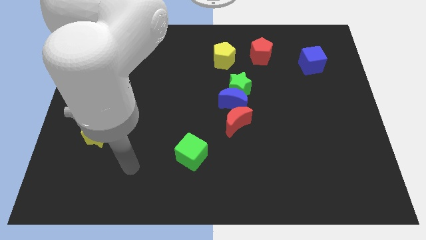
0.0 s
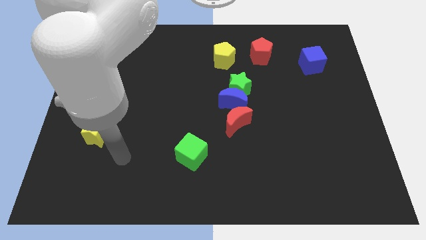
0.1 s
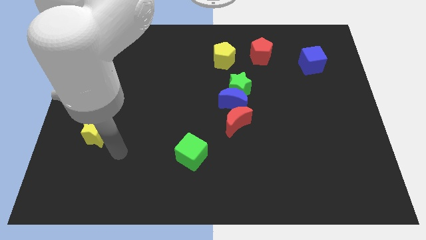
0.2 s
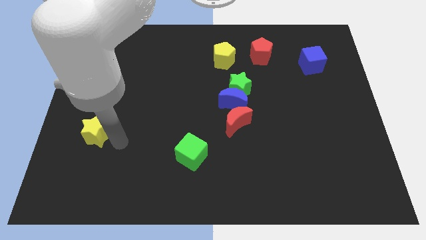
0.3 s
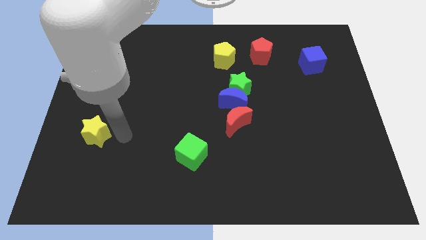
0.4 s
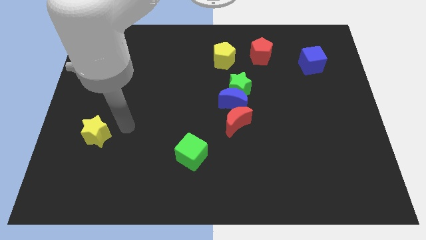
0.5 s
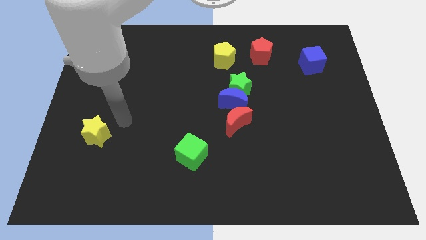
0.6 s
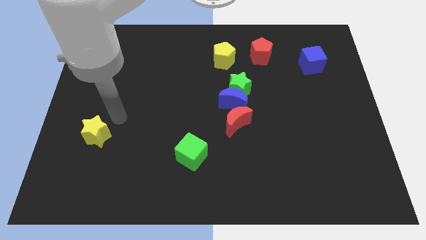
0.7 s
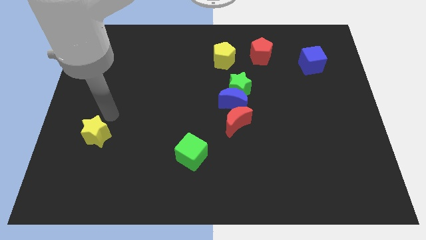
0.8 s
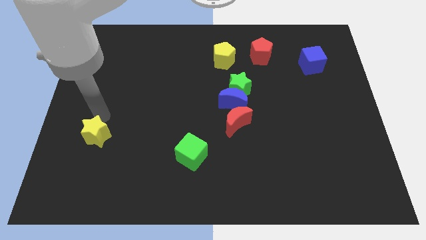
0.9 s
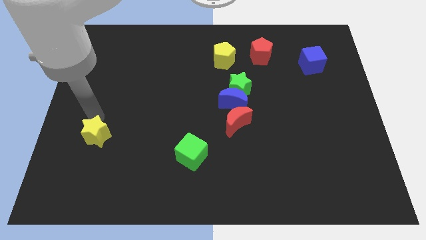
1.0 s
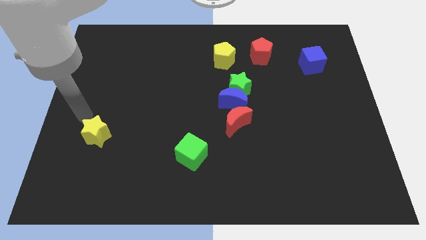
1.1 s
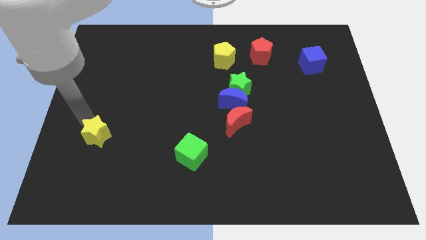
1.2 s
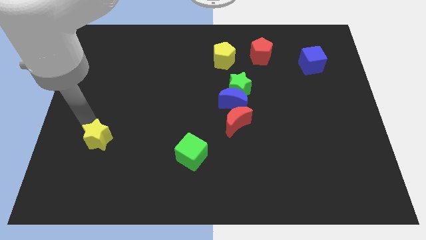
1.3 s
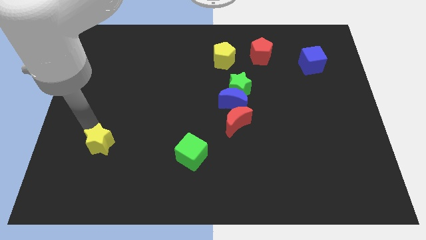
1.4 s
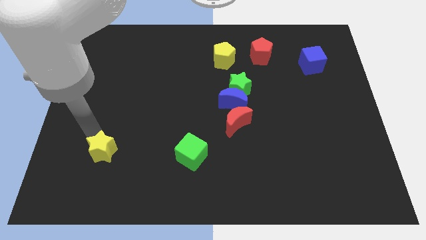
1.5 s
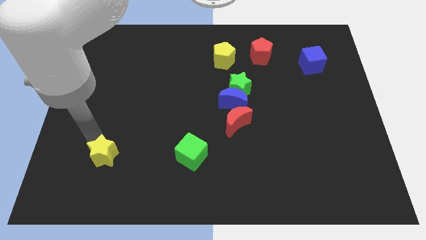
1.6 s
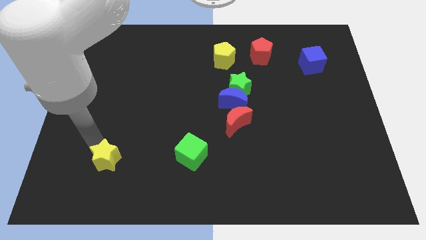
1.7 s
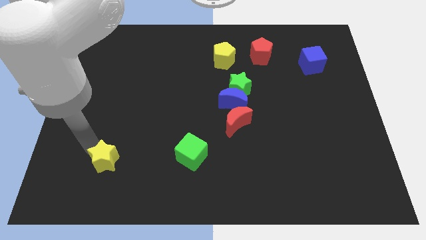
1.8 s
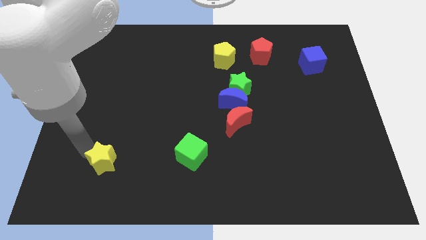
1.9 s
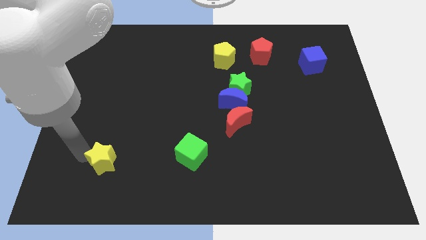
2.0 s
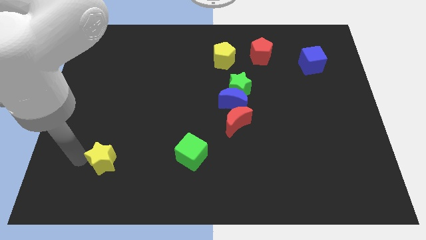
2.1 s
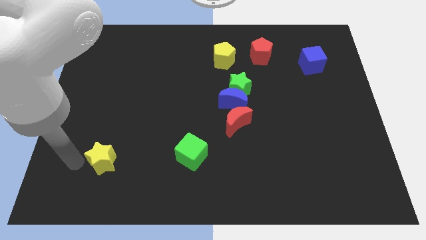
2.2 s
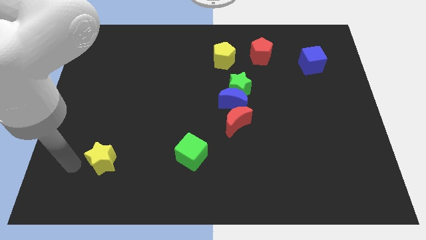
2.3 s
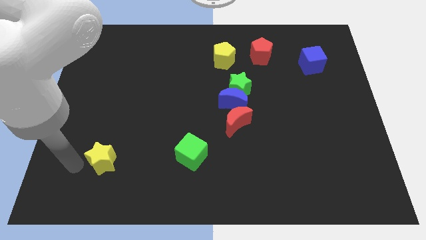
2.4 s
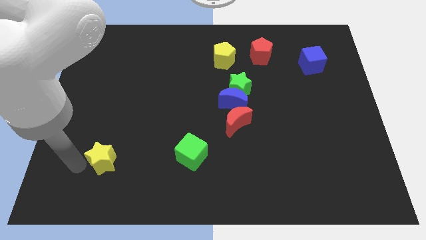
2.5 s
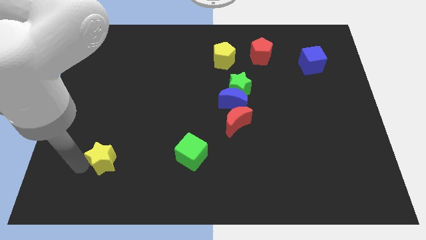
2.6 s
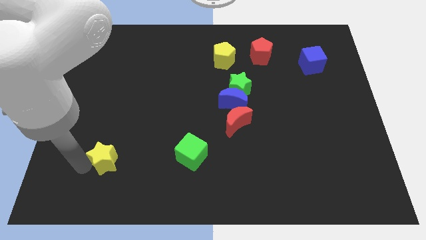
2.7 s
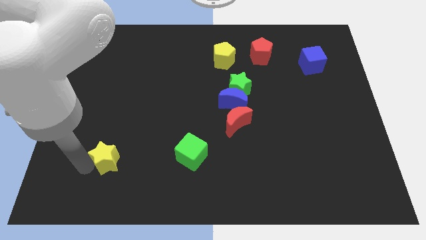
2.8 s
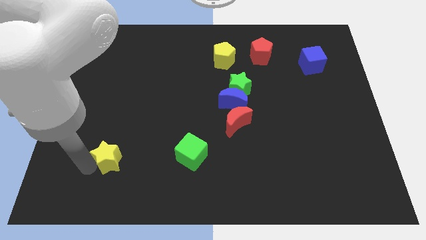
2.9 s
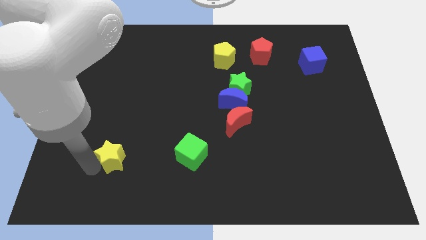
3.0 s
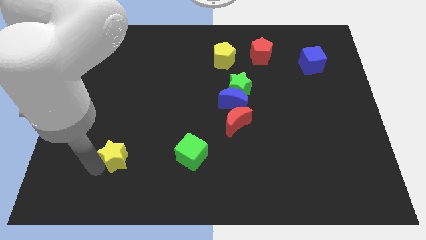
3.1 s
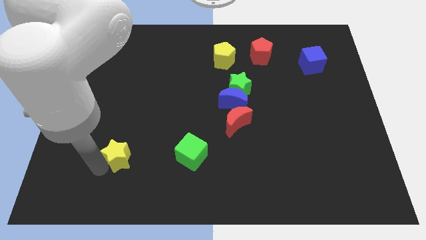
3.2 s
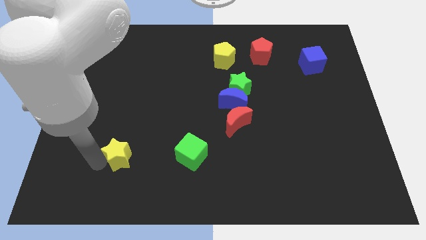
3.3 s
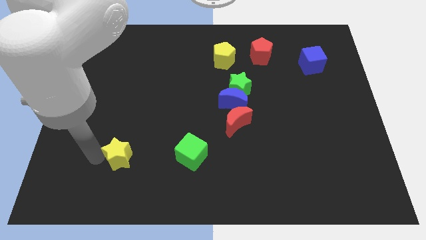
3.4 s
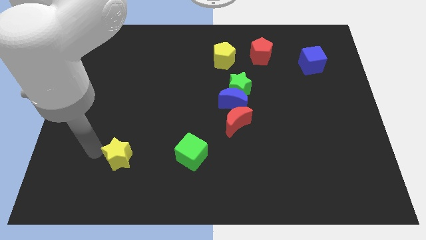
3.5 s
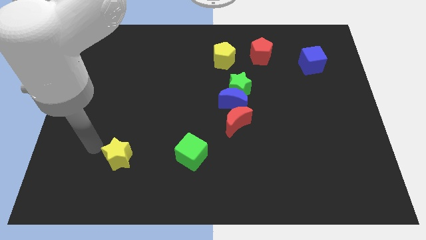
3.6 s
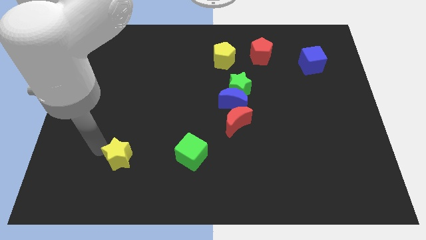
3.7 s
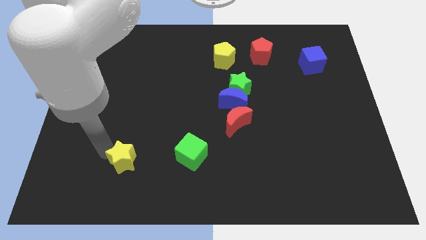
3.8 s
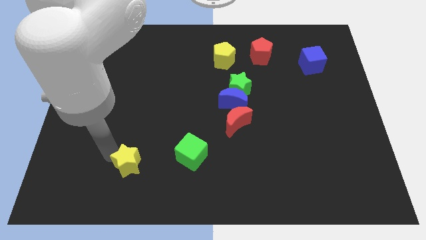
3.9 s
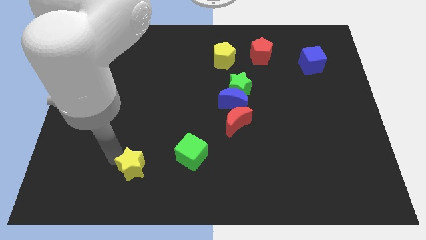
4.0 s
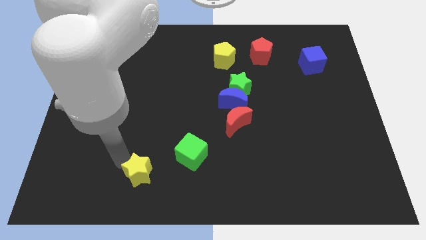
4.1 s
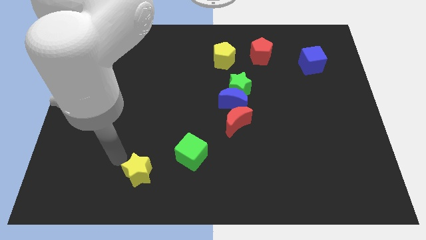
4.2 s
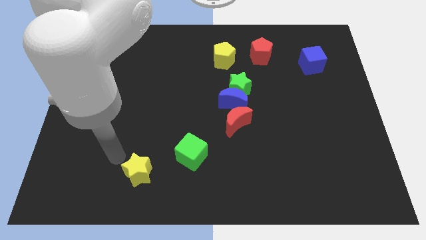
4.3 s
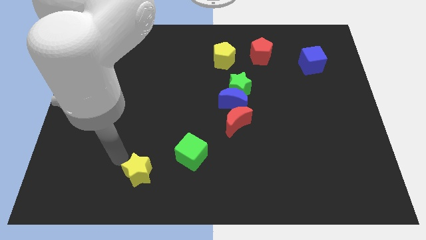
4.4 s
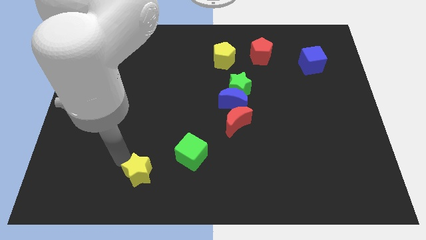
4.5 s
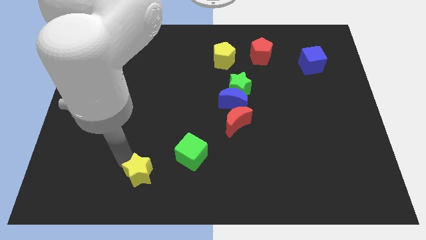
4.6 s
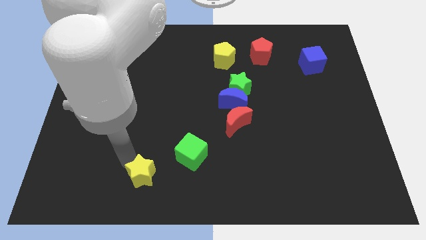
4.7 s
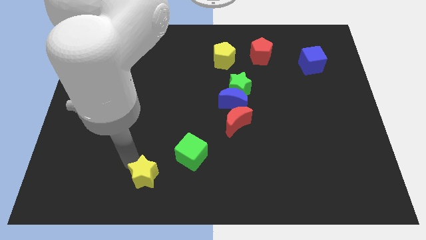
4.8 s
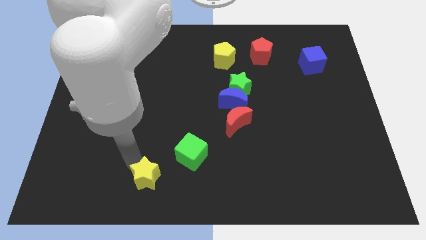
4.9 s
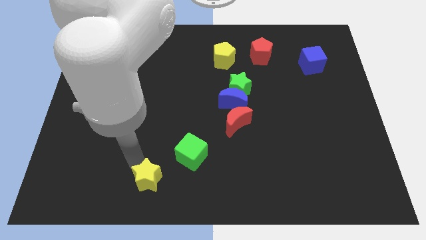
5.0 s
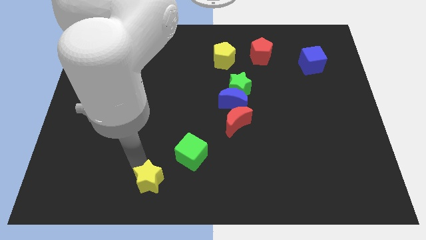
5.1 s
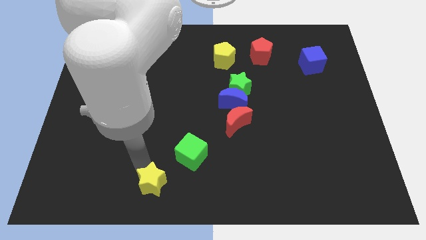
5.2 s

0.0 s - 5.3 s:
push the yellow star to the bottom

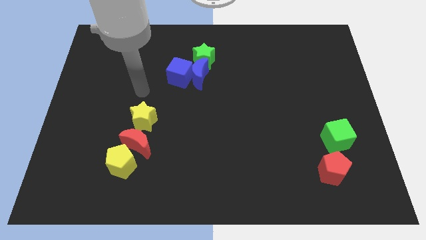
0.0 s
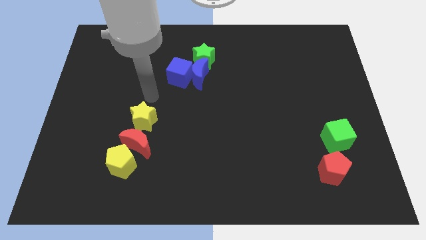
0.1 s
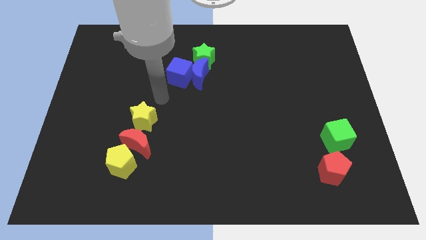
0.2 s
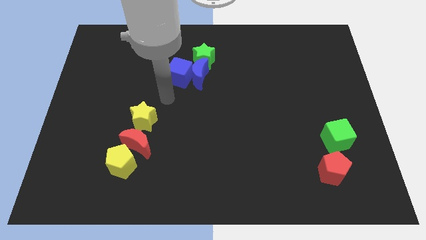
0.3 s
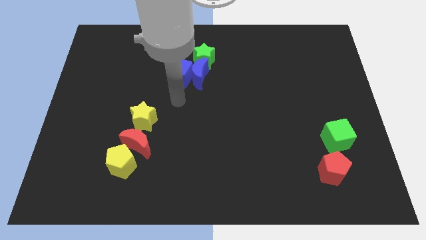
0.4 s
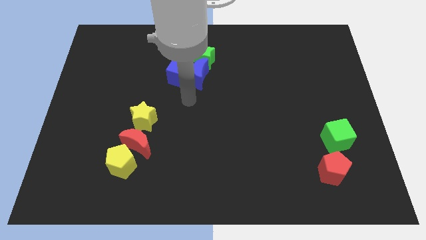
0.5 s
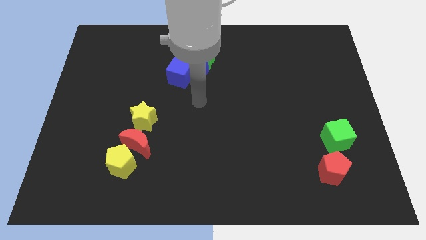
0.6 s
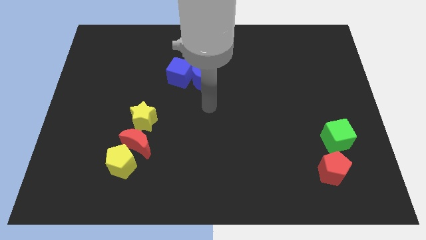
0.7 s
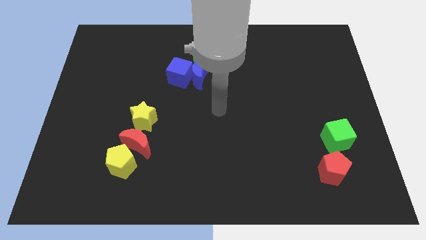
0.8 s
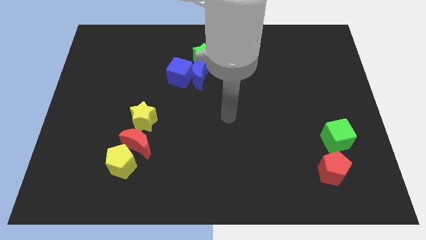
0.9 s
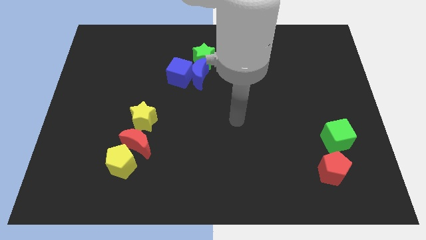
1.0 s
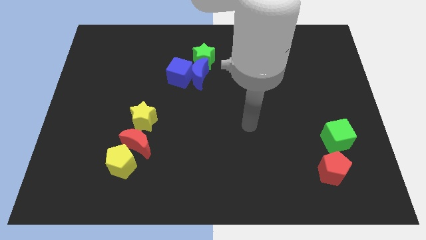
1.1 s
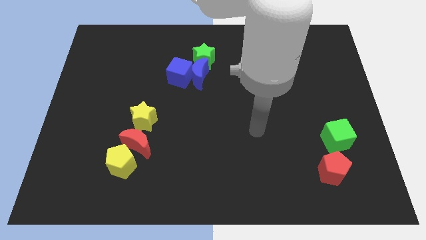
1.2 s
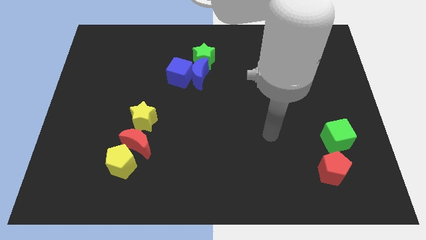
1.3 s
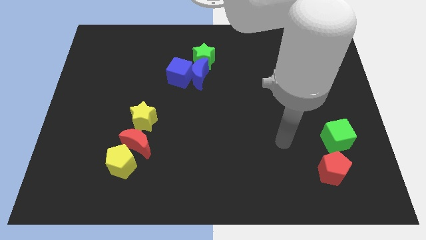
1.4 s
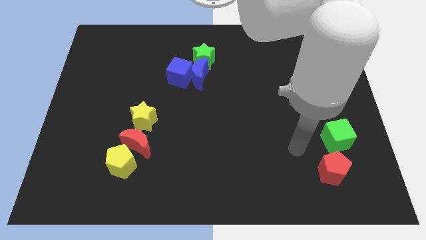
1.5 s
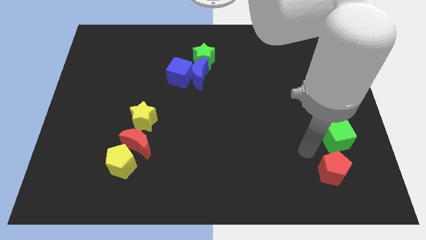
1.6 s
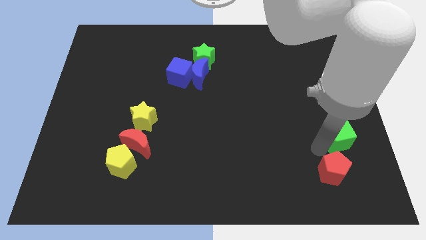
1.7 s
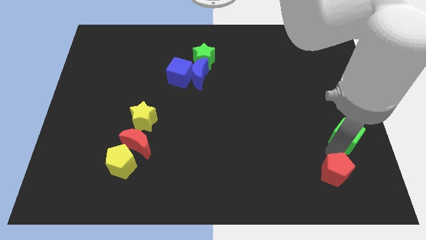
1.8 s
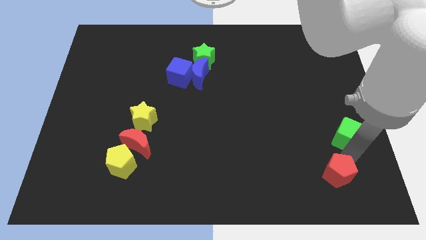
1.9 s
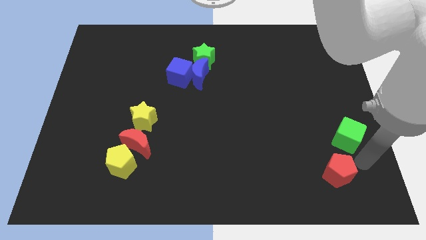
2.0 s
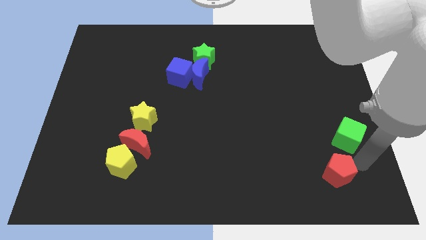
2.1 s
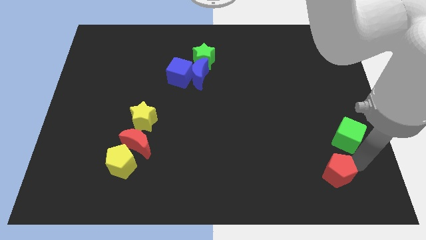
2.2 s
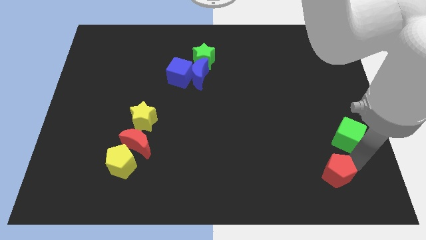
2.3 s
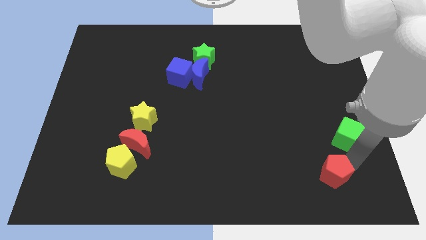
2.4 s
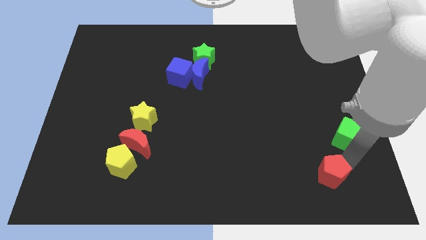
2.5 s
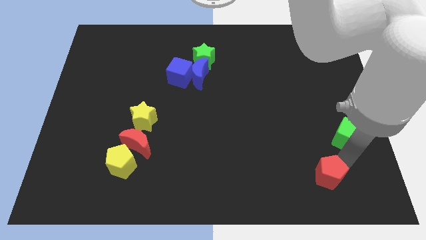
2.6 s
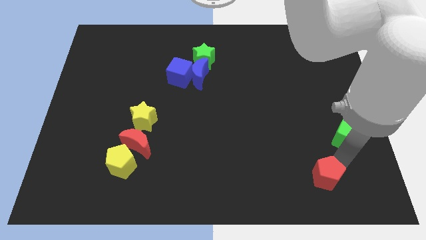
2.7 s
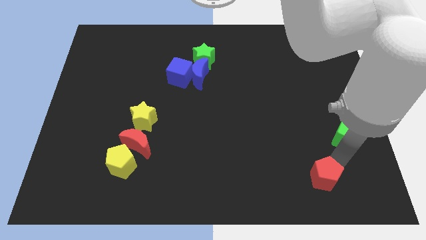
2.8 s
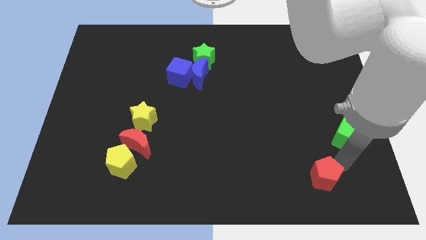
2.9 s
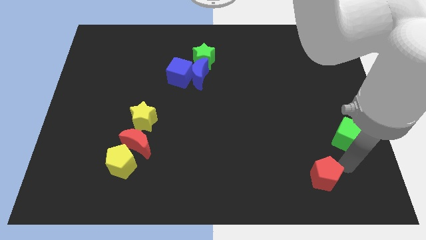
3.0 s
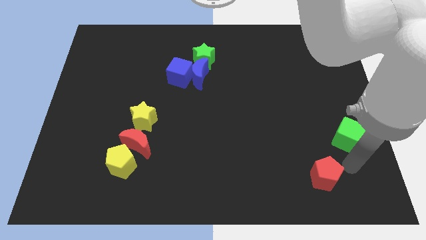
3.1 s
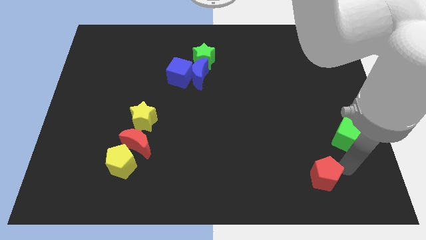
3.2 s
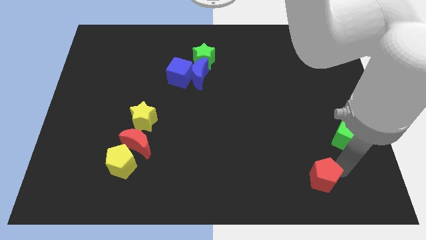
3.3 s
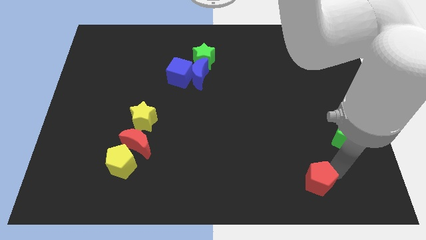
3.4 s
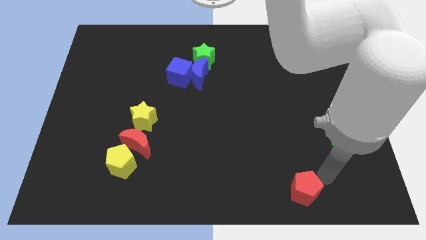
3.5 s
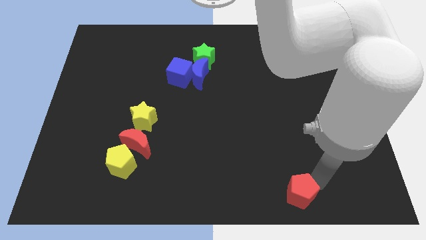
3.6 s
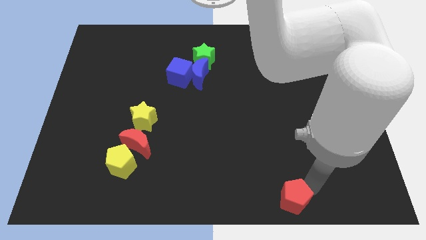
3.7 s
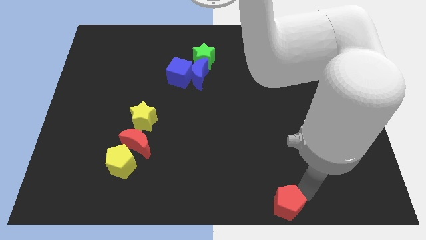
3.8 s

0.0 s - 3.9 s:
move the red pentagon to the bottom
